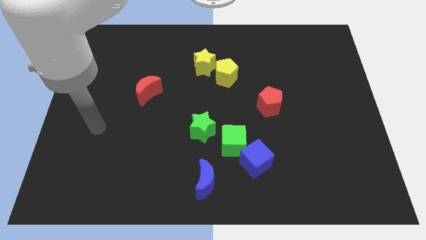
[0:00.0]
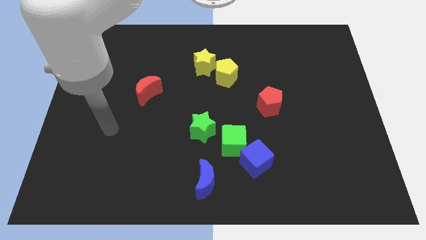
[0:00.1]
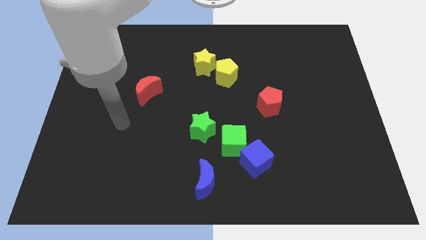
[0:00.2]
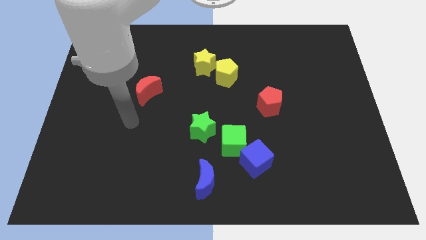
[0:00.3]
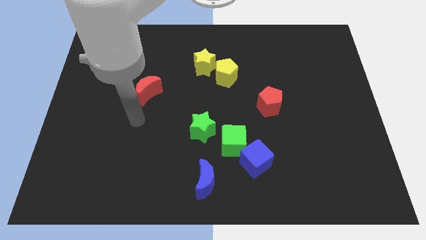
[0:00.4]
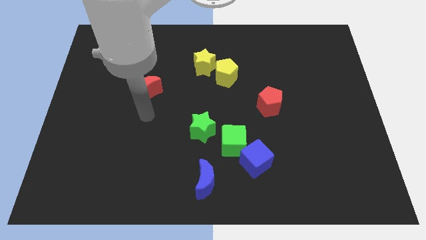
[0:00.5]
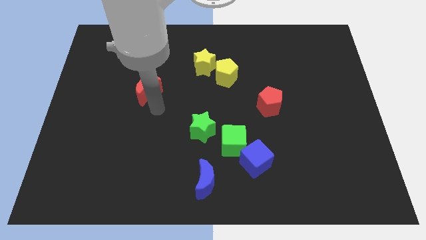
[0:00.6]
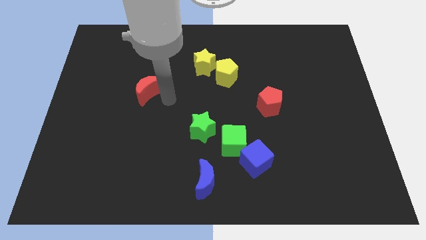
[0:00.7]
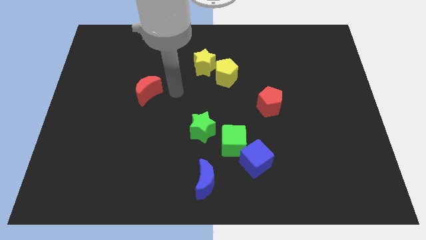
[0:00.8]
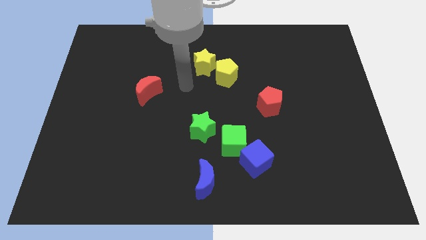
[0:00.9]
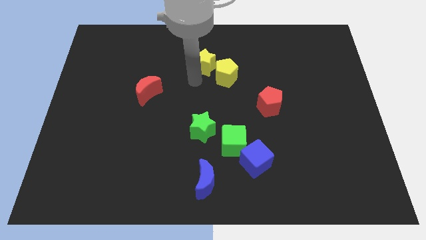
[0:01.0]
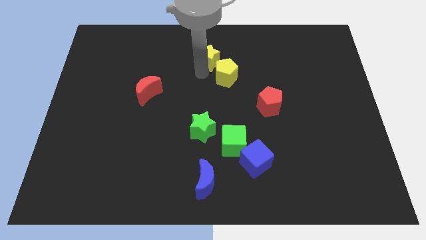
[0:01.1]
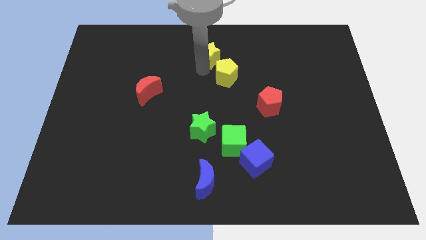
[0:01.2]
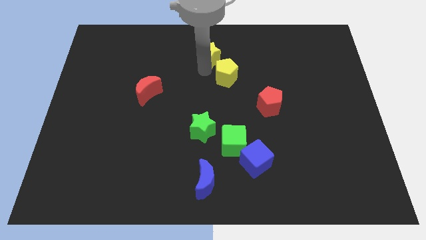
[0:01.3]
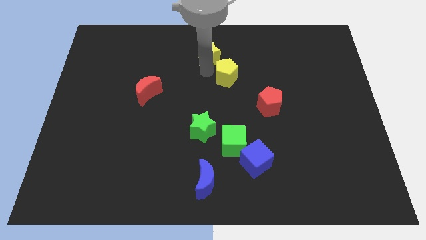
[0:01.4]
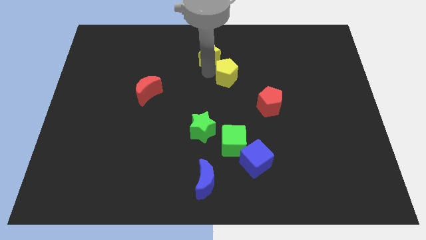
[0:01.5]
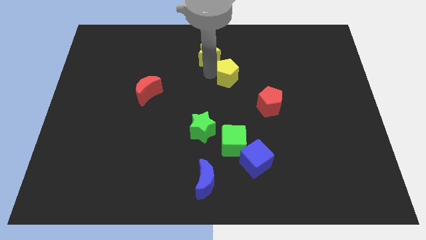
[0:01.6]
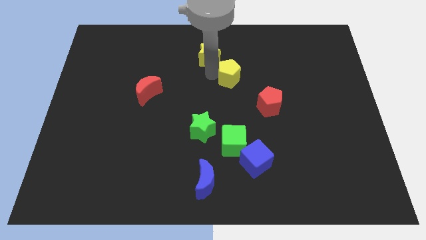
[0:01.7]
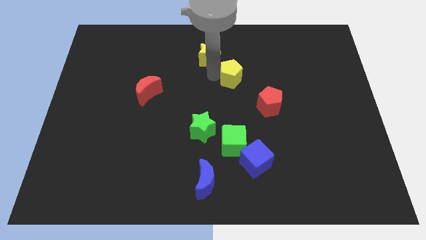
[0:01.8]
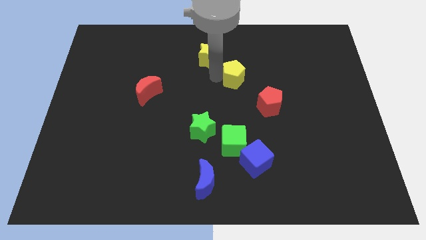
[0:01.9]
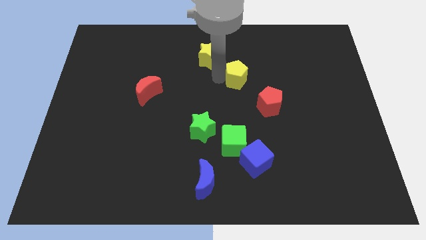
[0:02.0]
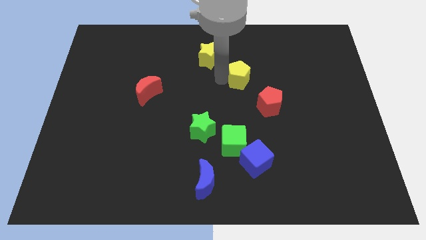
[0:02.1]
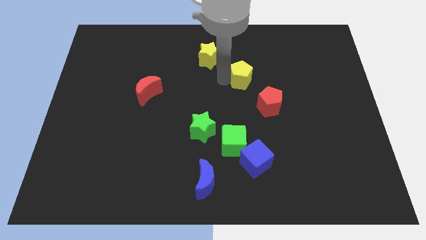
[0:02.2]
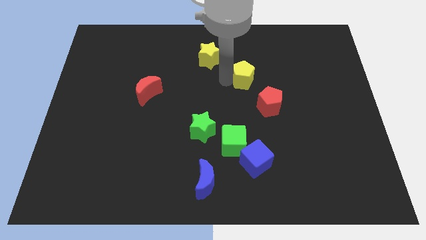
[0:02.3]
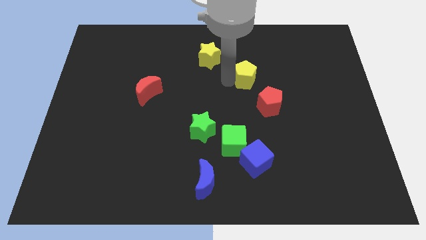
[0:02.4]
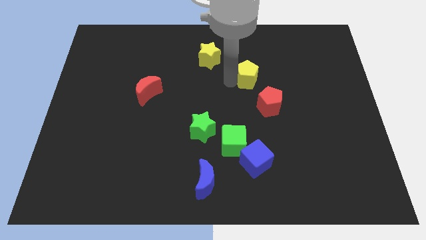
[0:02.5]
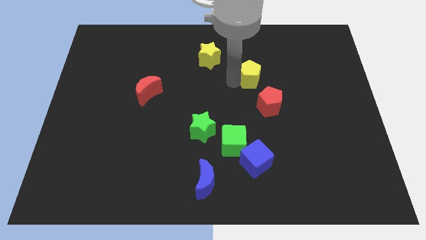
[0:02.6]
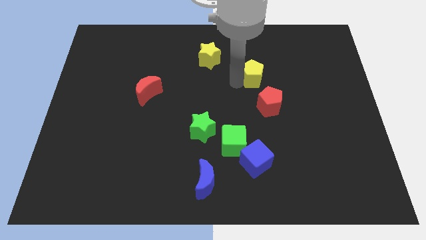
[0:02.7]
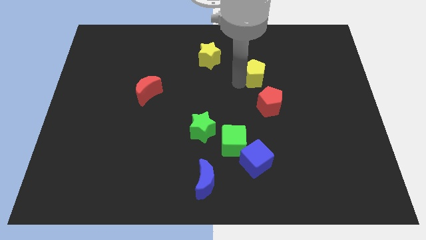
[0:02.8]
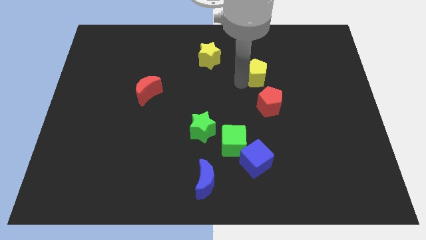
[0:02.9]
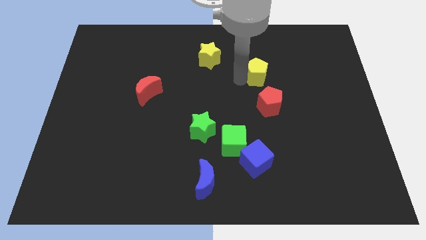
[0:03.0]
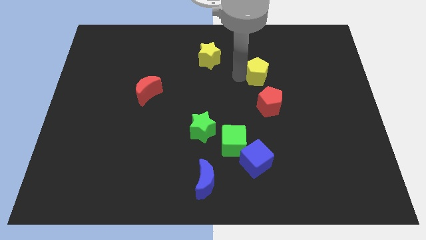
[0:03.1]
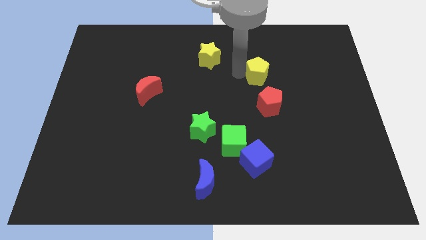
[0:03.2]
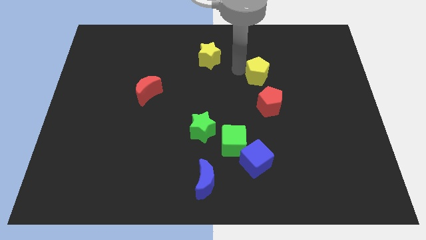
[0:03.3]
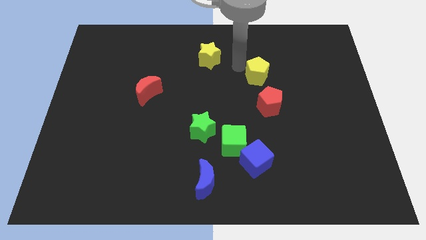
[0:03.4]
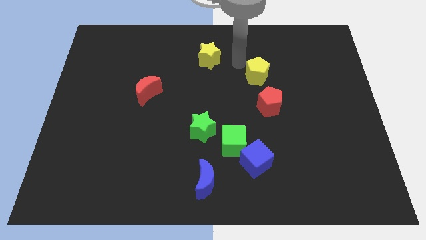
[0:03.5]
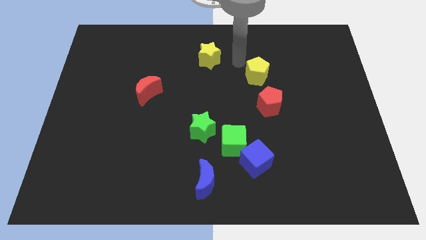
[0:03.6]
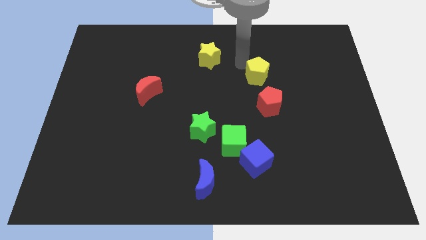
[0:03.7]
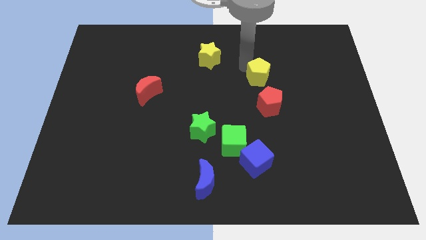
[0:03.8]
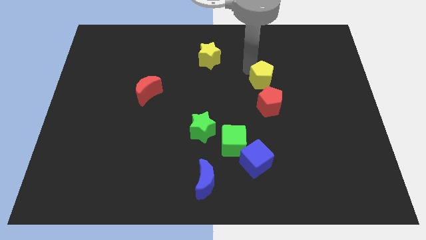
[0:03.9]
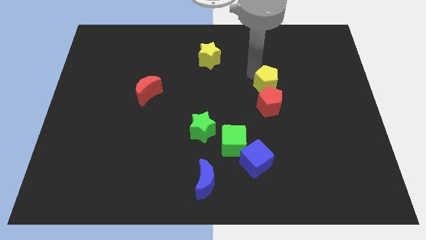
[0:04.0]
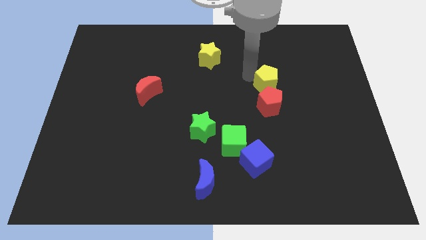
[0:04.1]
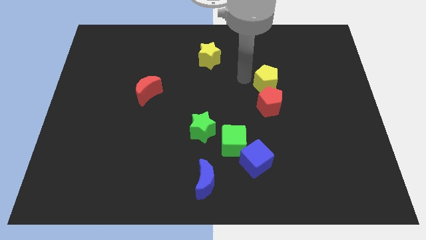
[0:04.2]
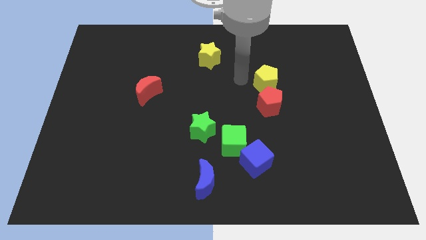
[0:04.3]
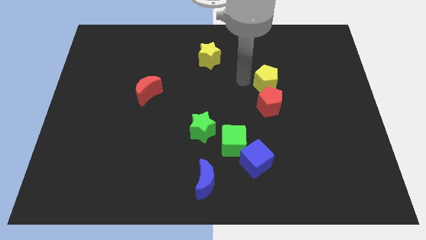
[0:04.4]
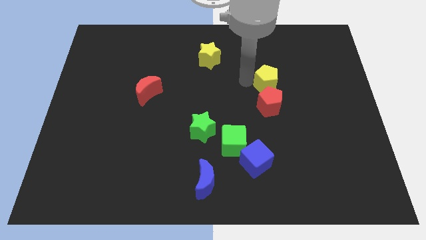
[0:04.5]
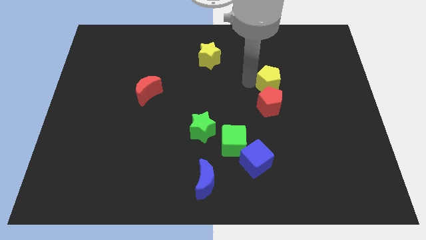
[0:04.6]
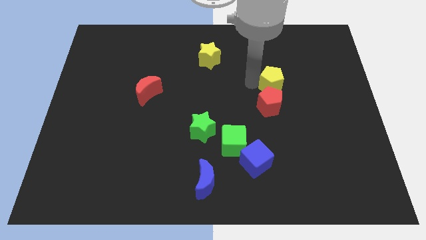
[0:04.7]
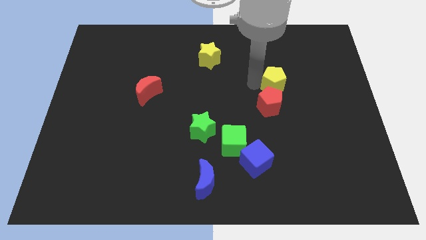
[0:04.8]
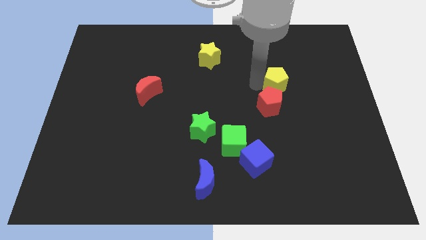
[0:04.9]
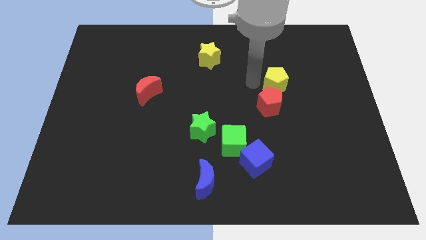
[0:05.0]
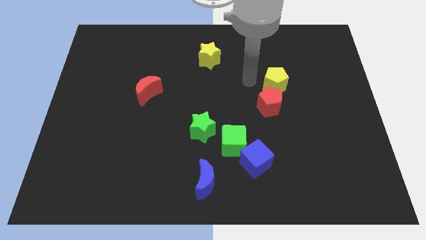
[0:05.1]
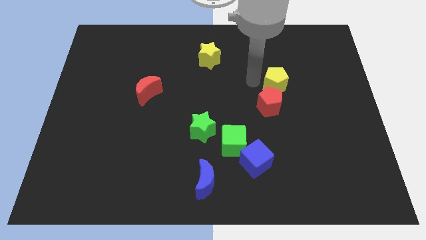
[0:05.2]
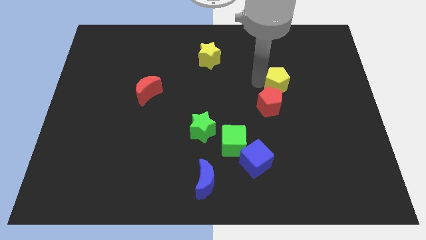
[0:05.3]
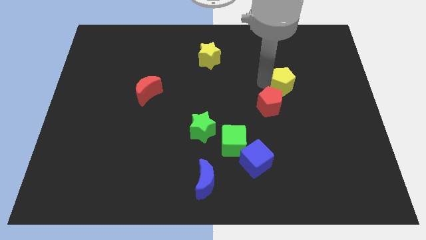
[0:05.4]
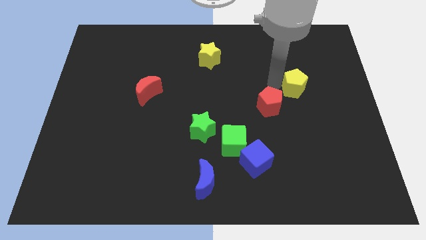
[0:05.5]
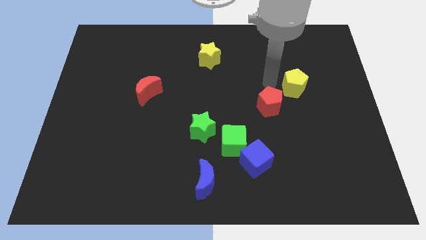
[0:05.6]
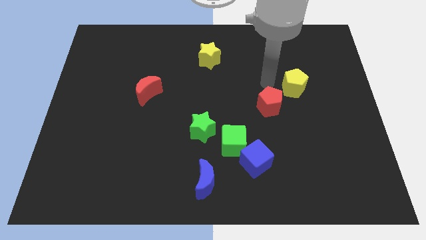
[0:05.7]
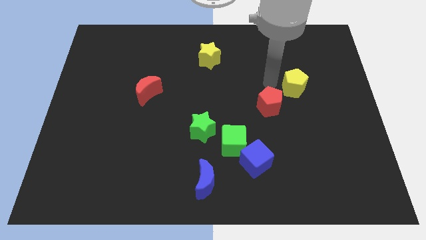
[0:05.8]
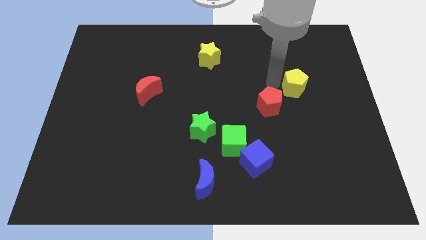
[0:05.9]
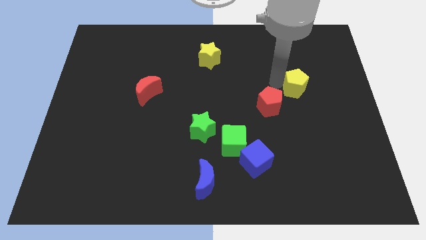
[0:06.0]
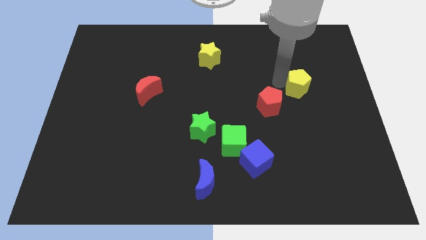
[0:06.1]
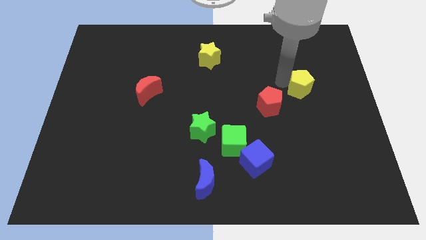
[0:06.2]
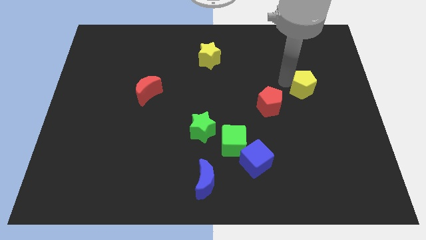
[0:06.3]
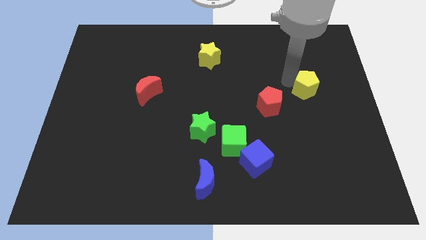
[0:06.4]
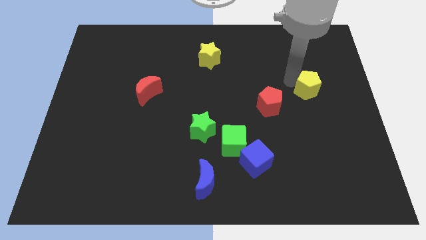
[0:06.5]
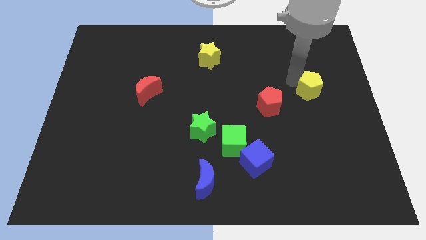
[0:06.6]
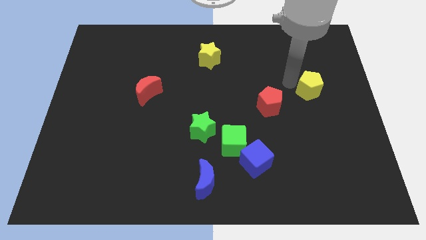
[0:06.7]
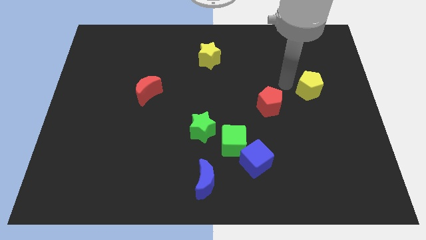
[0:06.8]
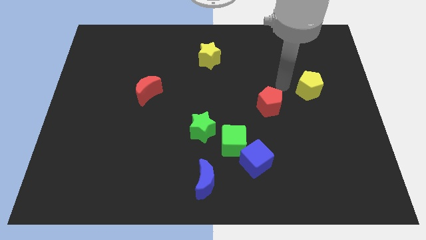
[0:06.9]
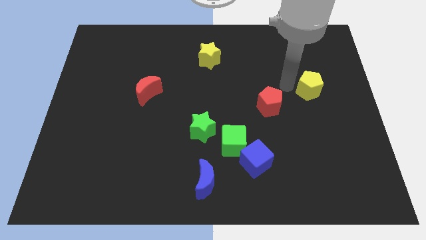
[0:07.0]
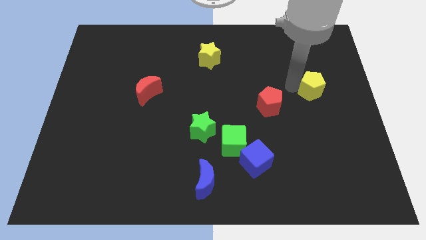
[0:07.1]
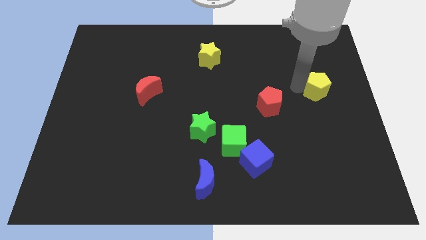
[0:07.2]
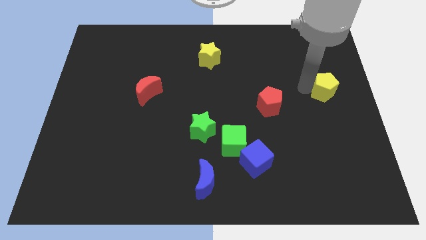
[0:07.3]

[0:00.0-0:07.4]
put the yellow pentagon to the right side of the board
